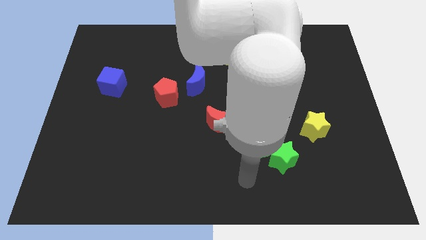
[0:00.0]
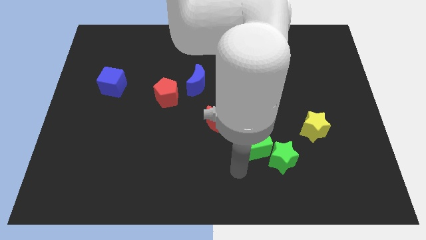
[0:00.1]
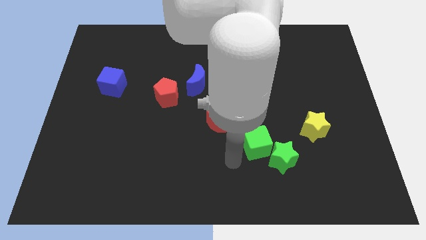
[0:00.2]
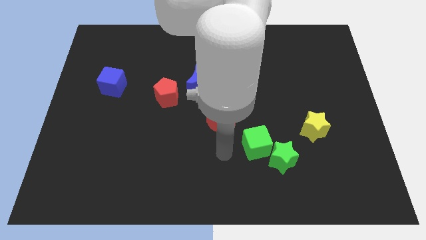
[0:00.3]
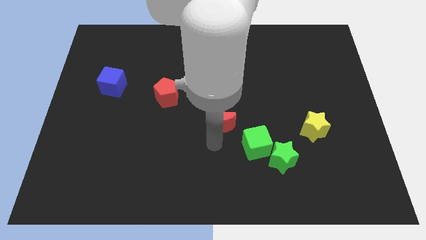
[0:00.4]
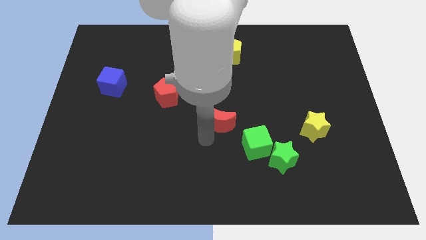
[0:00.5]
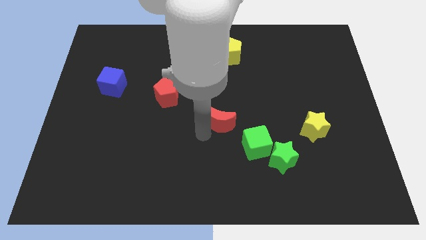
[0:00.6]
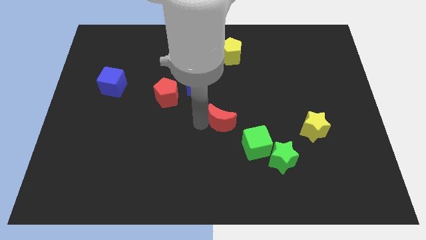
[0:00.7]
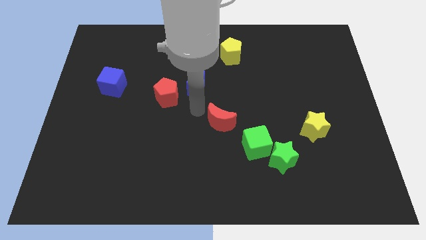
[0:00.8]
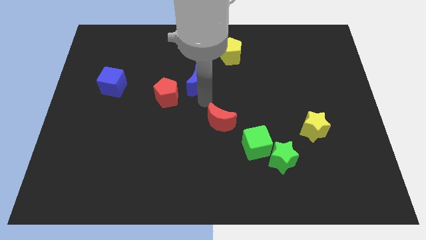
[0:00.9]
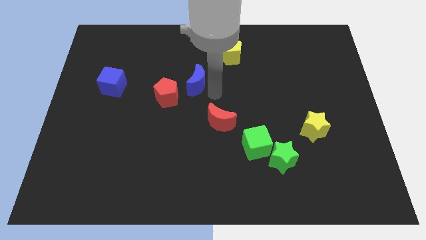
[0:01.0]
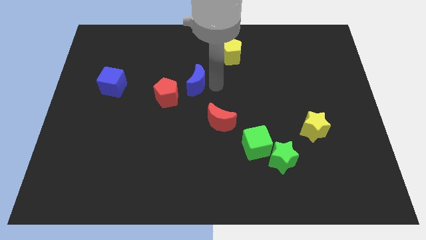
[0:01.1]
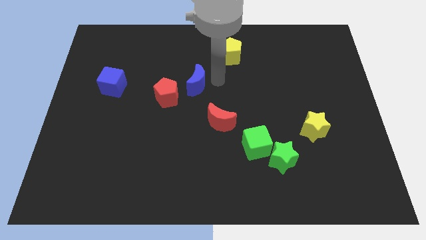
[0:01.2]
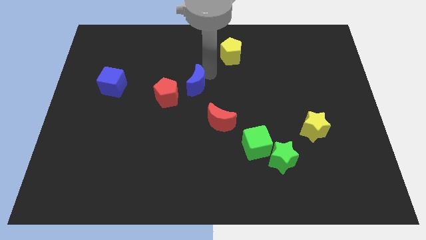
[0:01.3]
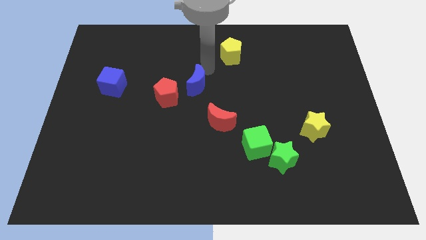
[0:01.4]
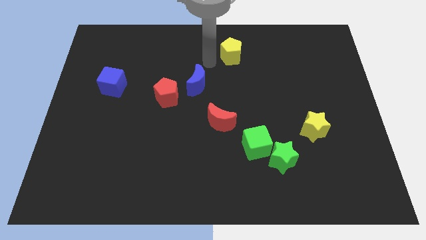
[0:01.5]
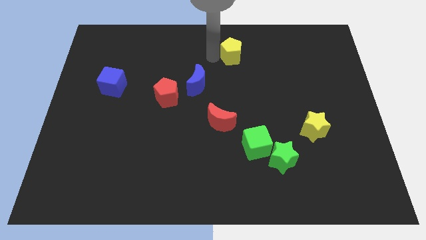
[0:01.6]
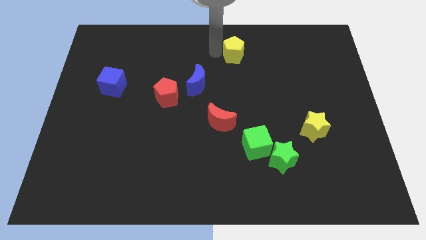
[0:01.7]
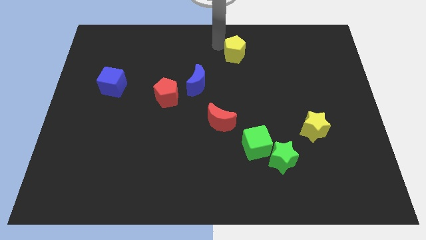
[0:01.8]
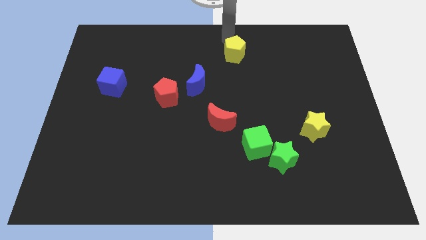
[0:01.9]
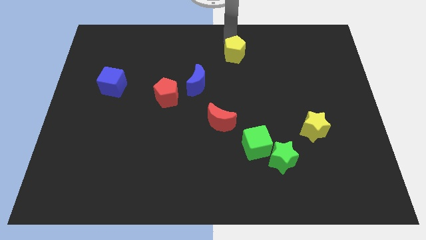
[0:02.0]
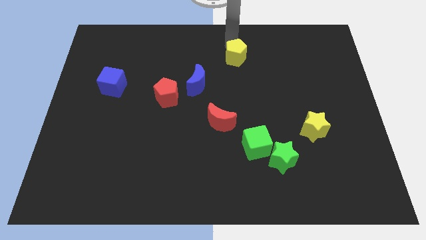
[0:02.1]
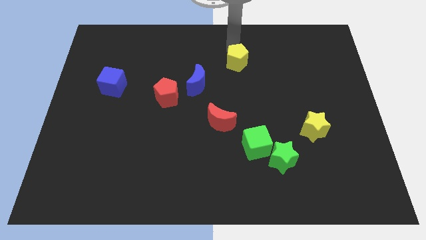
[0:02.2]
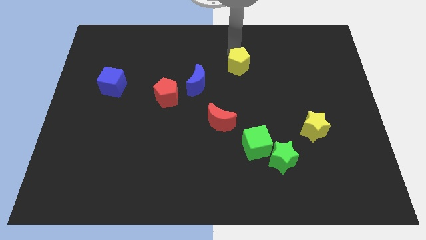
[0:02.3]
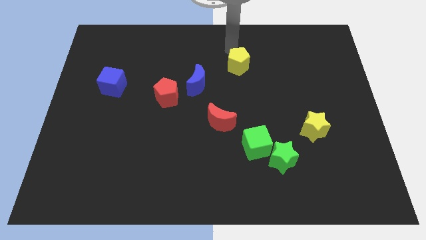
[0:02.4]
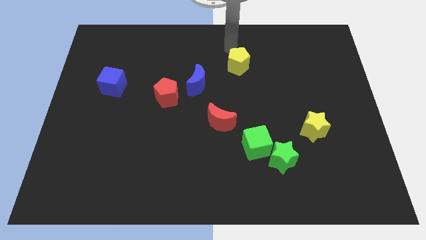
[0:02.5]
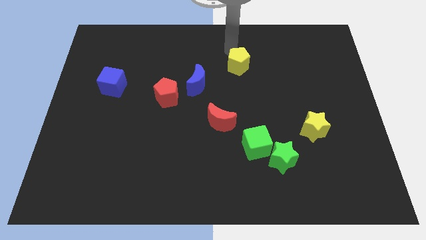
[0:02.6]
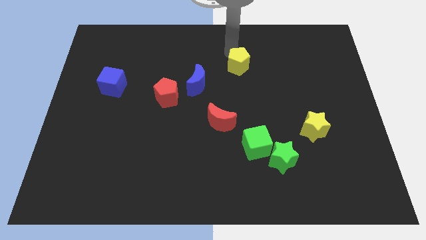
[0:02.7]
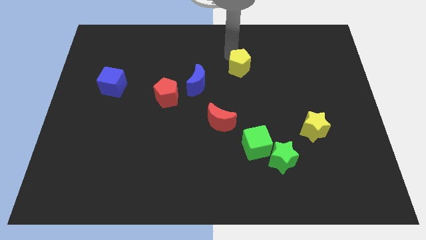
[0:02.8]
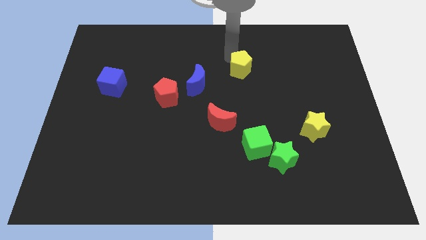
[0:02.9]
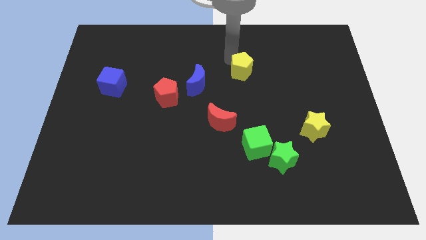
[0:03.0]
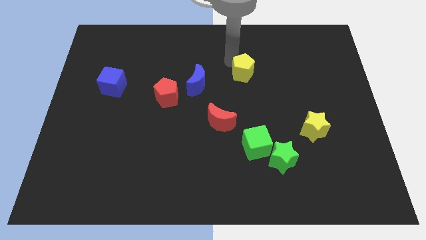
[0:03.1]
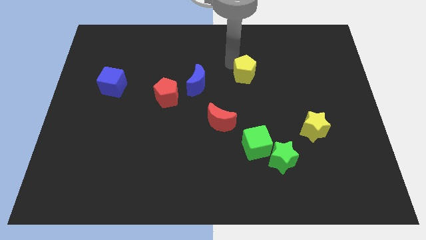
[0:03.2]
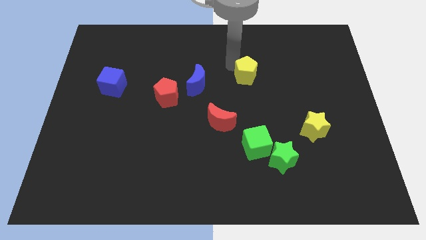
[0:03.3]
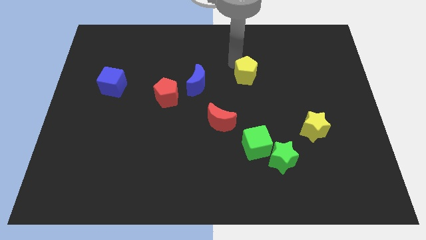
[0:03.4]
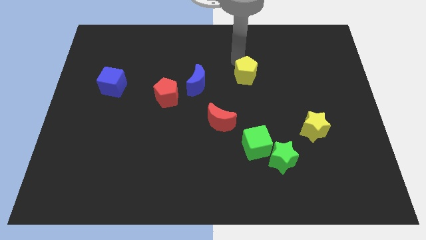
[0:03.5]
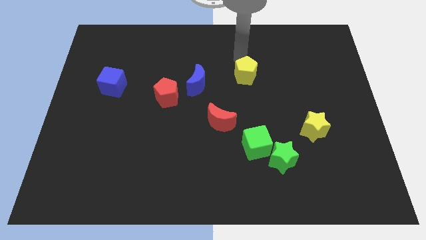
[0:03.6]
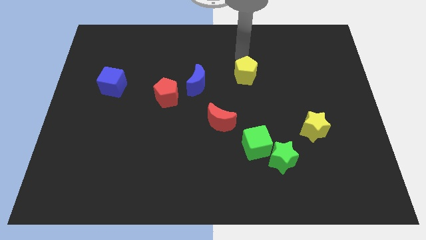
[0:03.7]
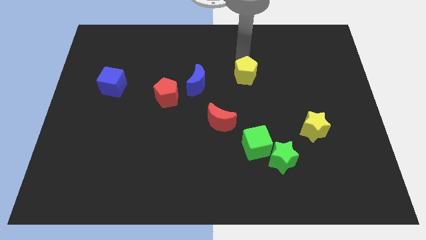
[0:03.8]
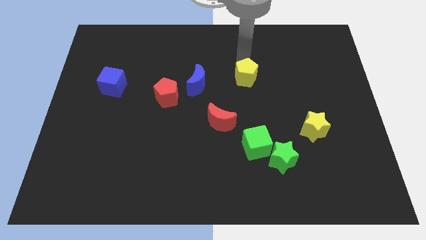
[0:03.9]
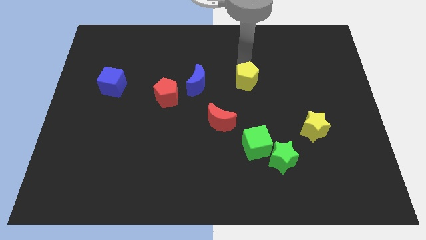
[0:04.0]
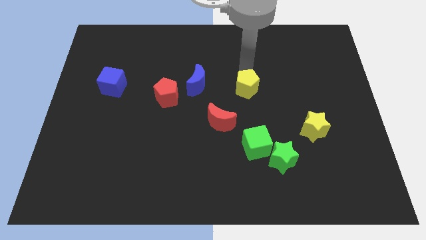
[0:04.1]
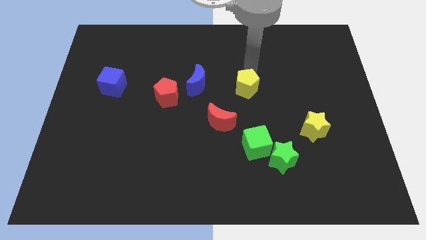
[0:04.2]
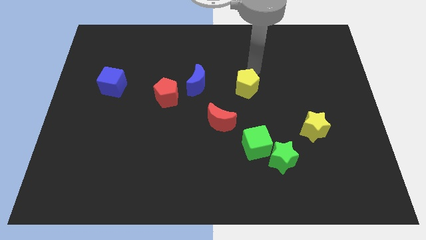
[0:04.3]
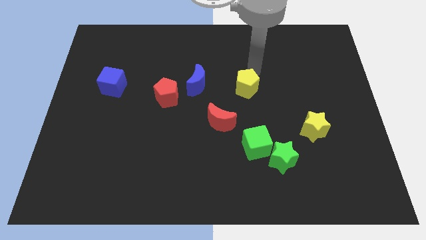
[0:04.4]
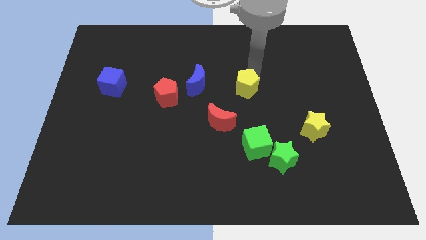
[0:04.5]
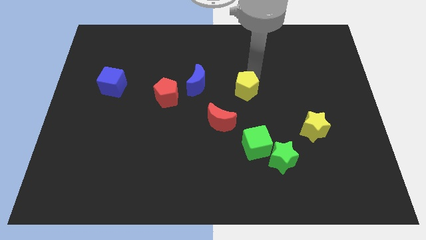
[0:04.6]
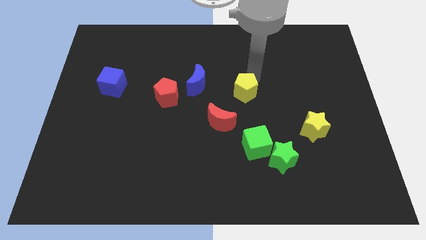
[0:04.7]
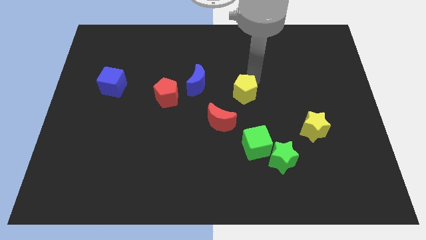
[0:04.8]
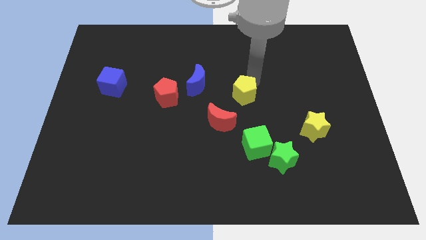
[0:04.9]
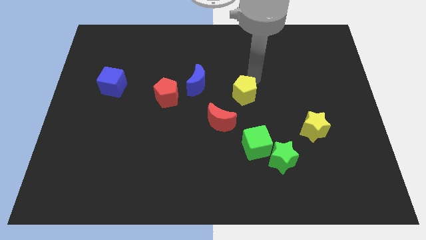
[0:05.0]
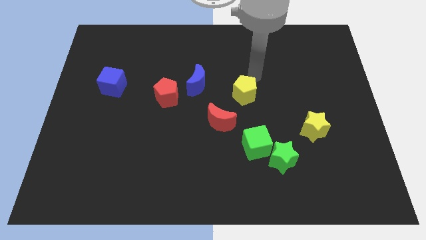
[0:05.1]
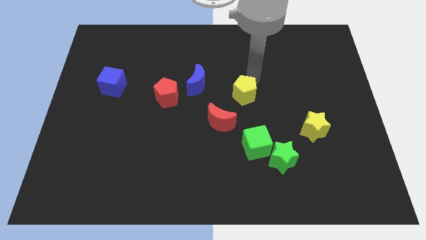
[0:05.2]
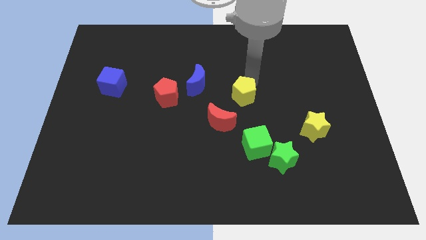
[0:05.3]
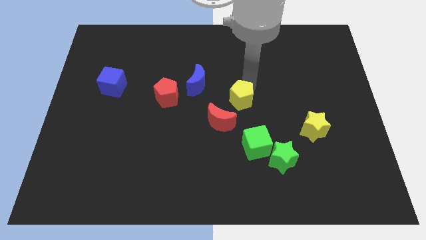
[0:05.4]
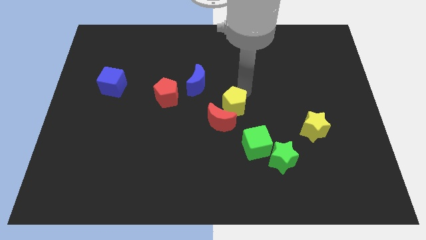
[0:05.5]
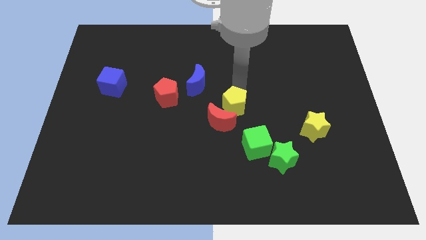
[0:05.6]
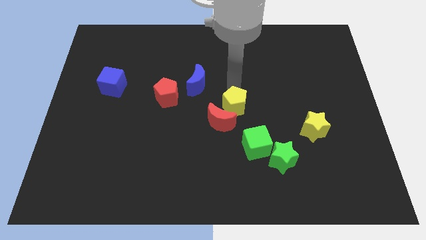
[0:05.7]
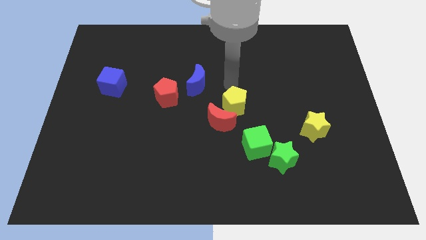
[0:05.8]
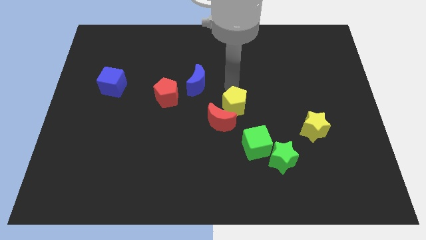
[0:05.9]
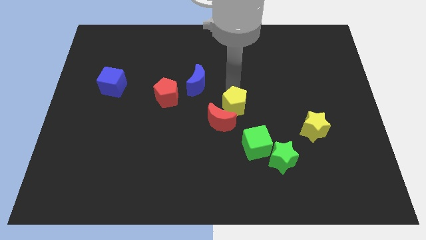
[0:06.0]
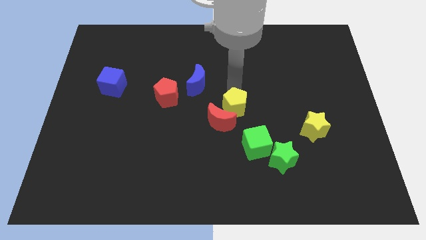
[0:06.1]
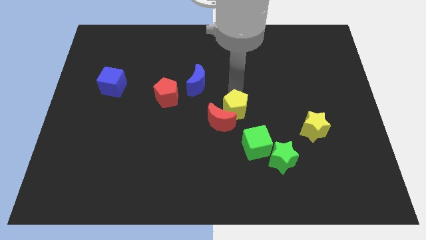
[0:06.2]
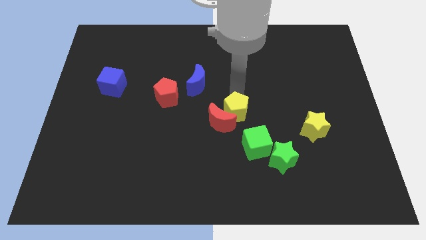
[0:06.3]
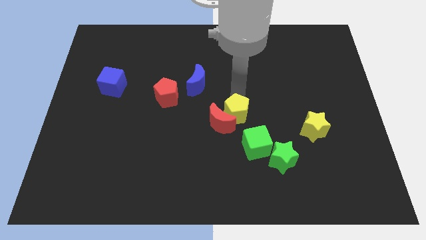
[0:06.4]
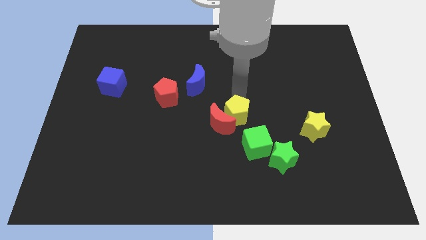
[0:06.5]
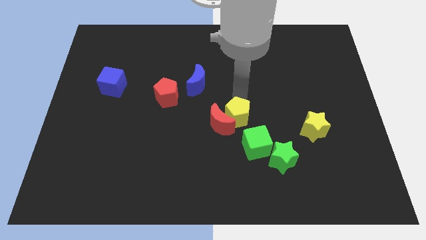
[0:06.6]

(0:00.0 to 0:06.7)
push the yellow pentagon down

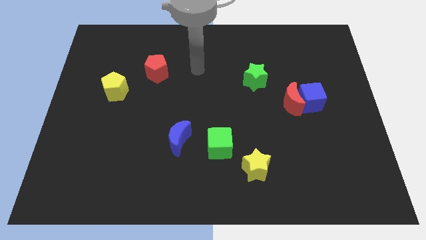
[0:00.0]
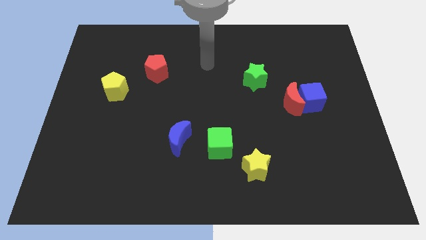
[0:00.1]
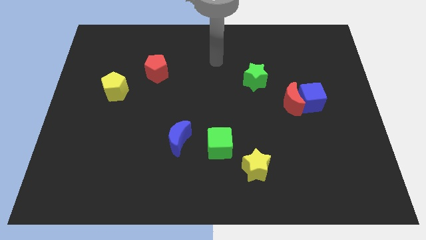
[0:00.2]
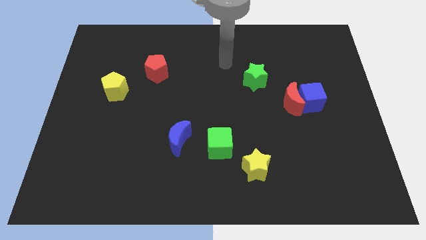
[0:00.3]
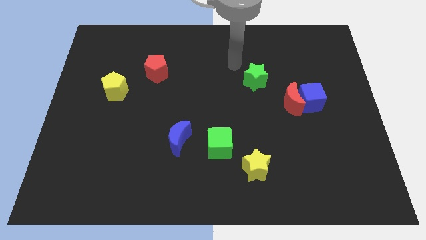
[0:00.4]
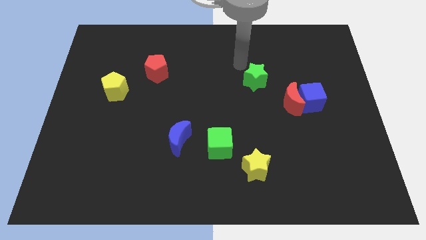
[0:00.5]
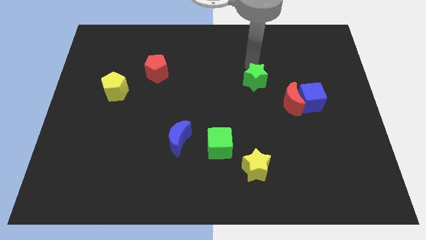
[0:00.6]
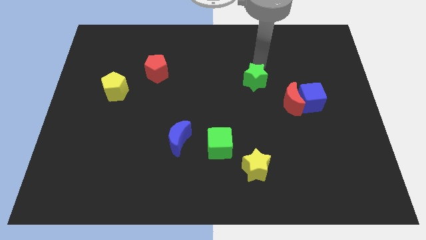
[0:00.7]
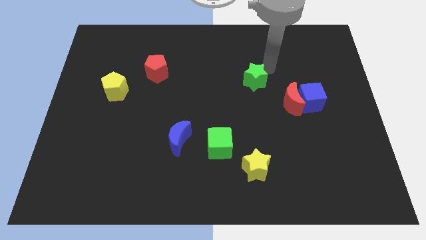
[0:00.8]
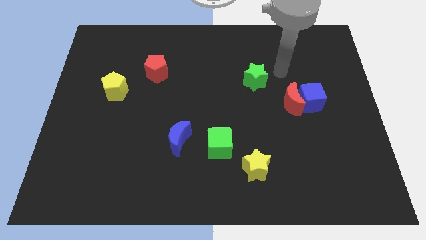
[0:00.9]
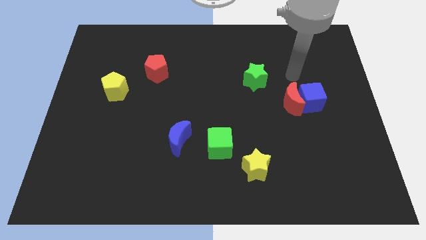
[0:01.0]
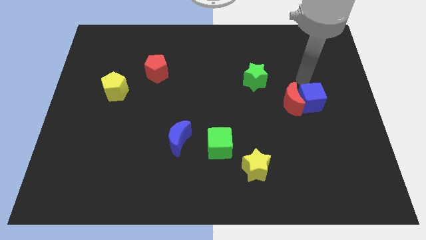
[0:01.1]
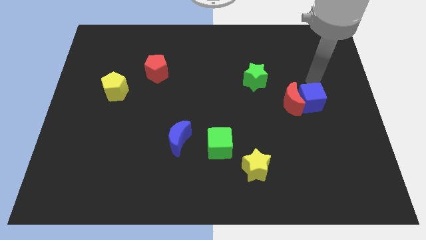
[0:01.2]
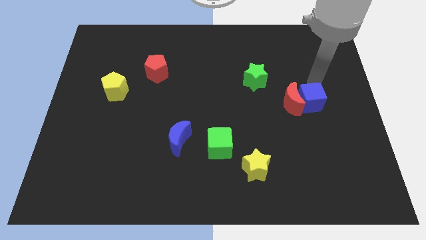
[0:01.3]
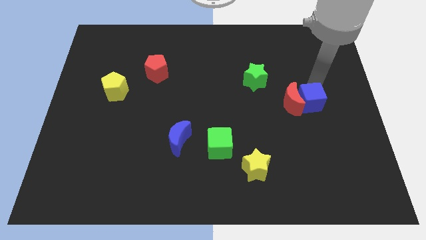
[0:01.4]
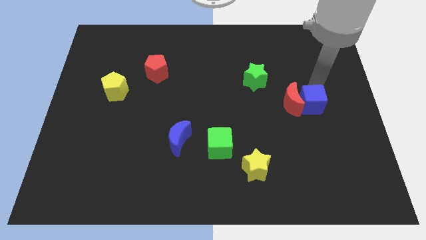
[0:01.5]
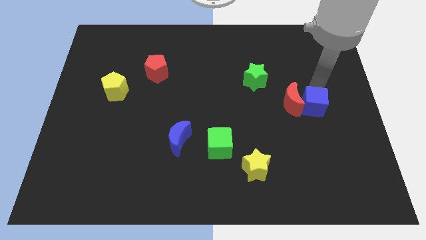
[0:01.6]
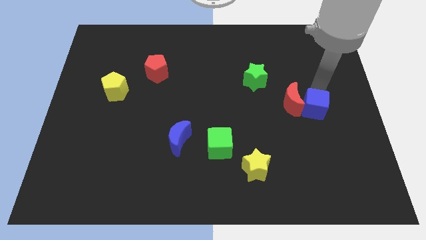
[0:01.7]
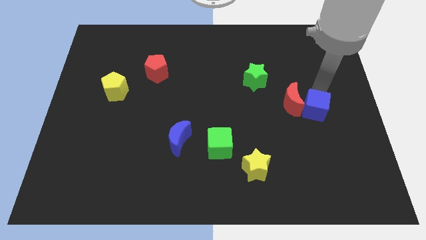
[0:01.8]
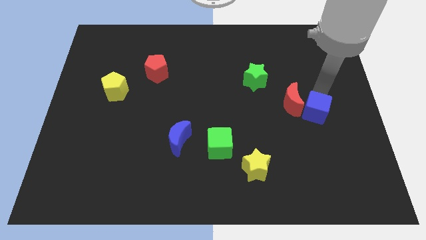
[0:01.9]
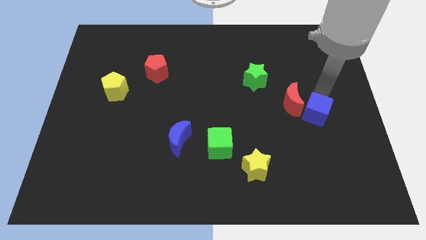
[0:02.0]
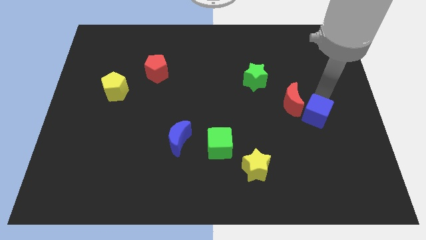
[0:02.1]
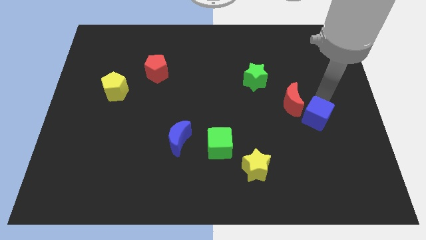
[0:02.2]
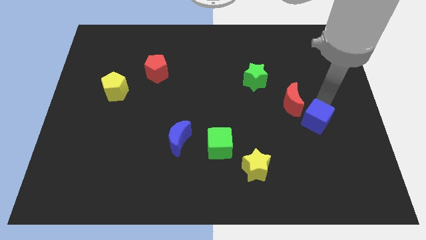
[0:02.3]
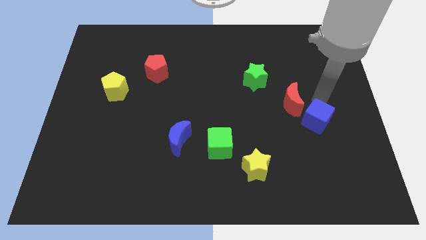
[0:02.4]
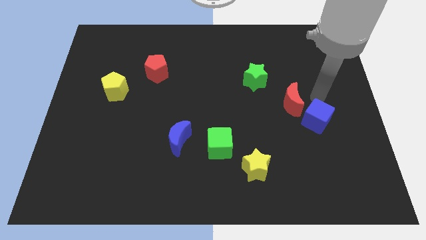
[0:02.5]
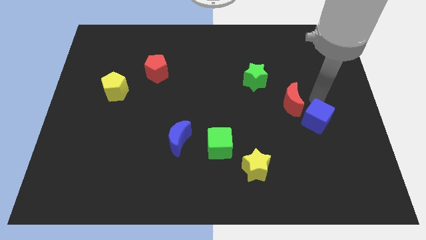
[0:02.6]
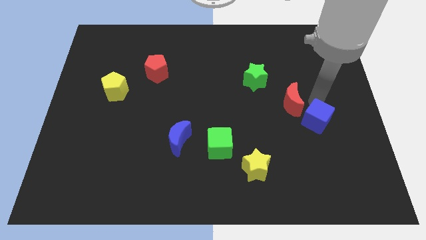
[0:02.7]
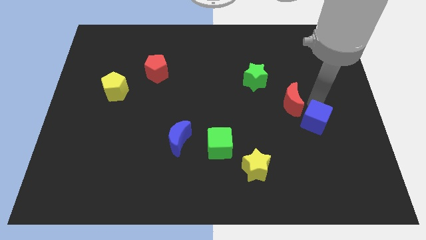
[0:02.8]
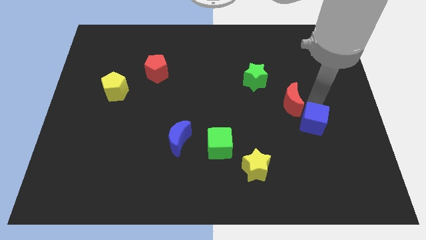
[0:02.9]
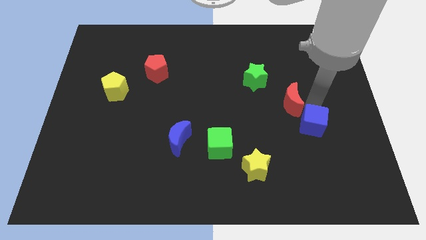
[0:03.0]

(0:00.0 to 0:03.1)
slightly push the blue cube down
